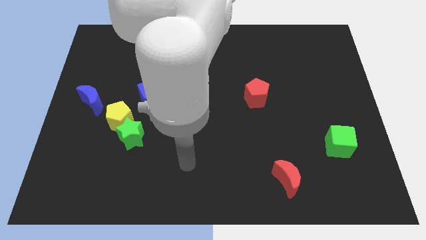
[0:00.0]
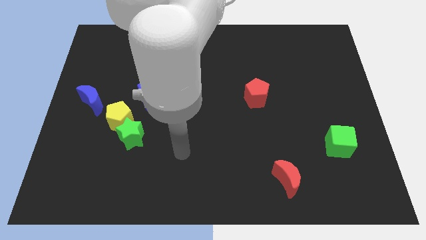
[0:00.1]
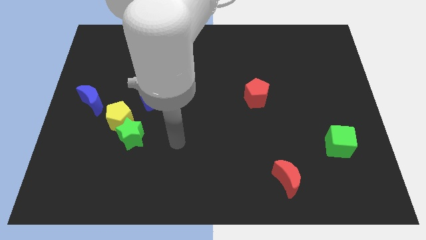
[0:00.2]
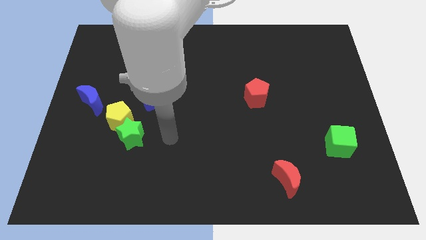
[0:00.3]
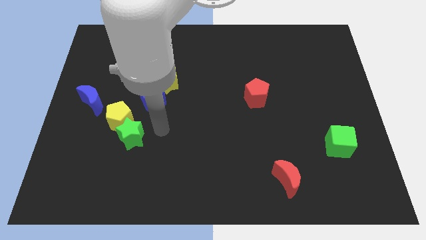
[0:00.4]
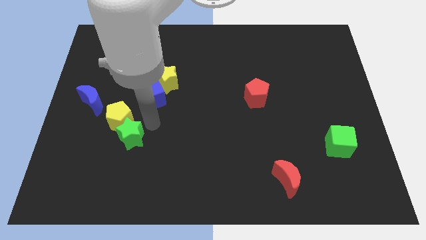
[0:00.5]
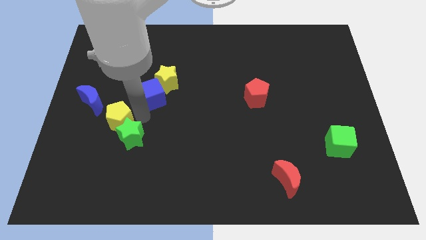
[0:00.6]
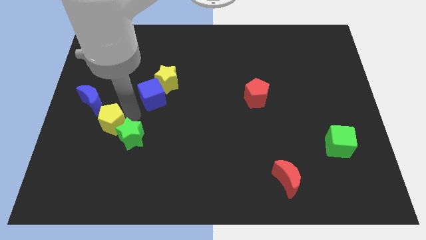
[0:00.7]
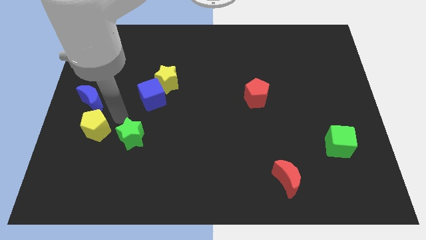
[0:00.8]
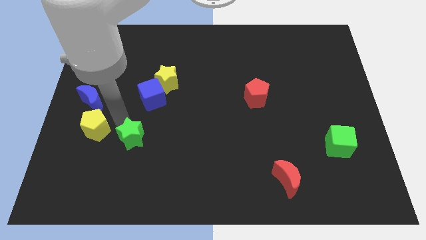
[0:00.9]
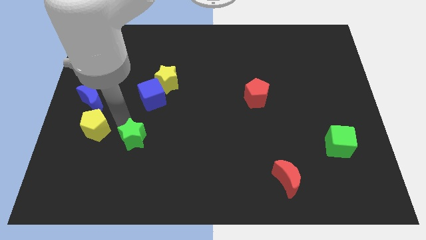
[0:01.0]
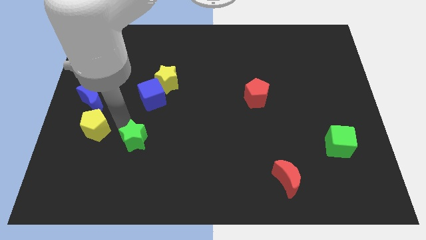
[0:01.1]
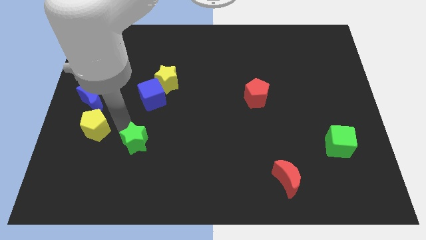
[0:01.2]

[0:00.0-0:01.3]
pull the green star apart from the yellow pentagon

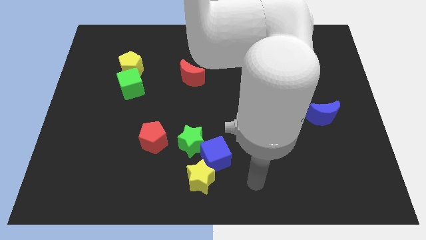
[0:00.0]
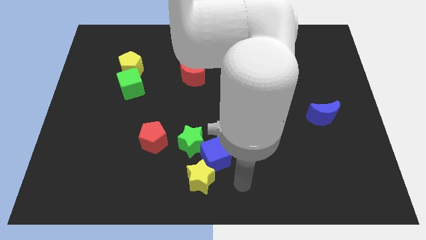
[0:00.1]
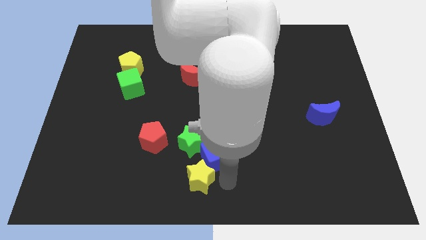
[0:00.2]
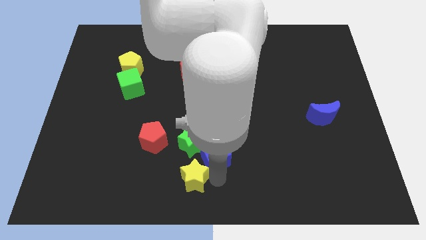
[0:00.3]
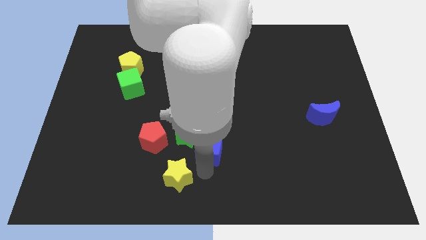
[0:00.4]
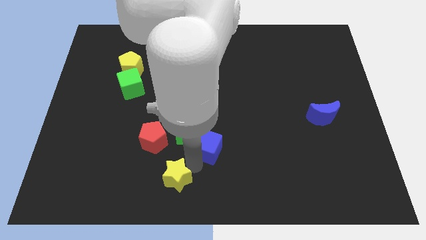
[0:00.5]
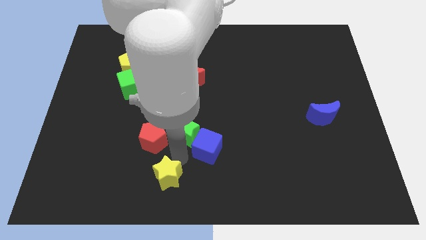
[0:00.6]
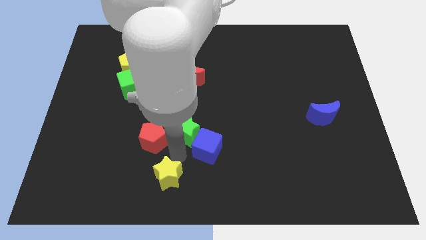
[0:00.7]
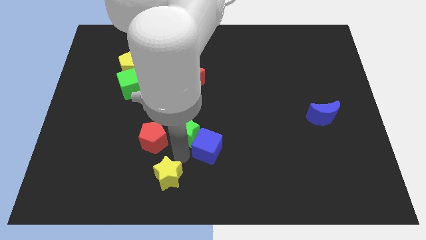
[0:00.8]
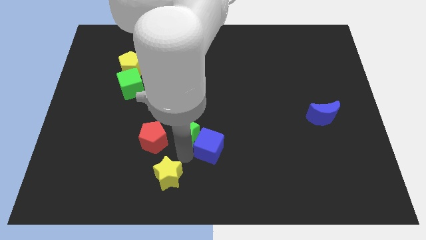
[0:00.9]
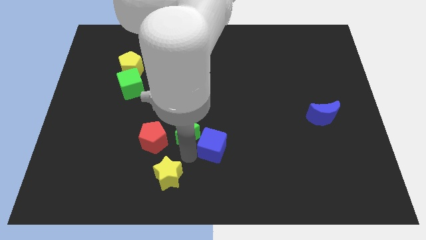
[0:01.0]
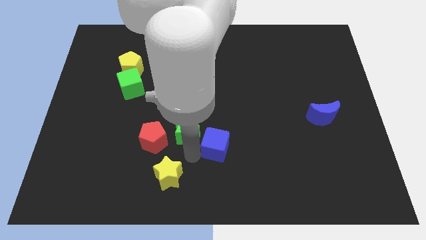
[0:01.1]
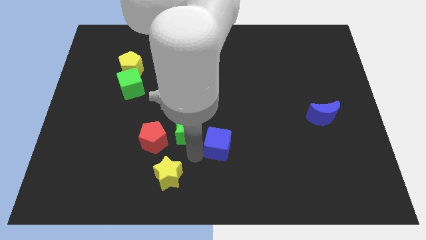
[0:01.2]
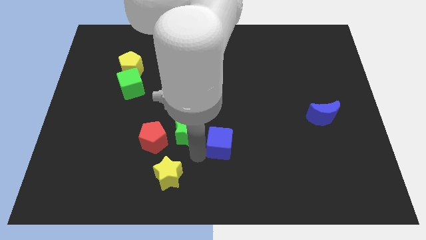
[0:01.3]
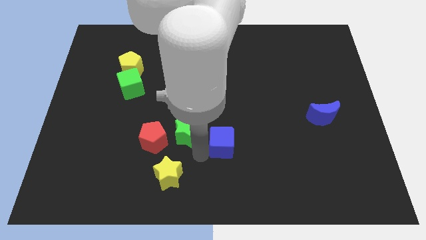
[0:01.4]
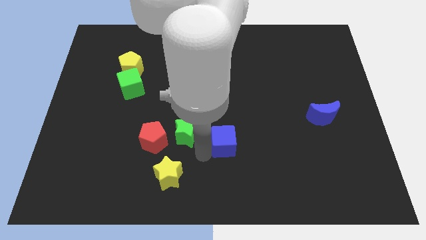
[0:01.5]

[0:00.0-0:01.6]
separate the blue cube from the green star and yellow star

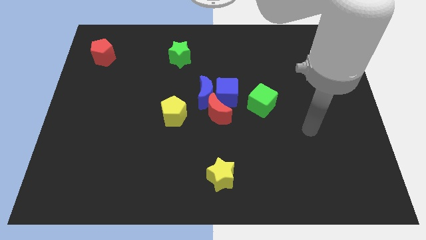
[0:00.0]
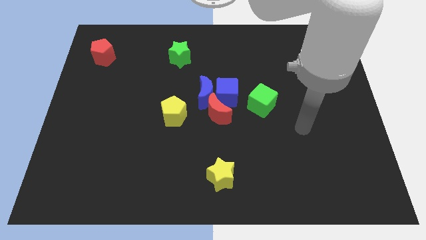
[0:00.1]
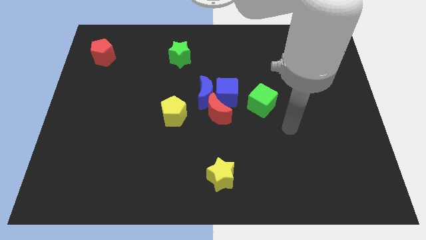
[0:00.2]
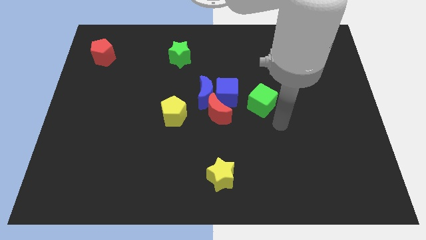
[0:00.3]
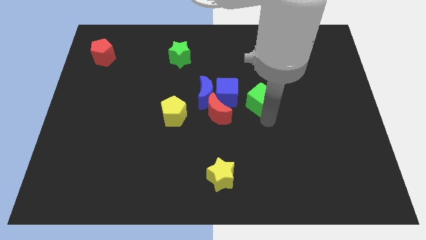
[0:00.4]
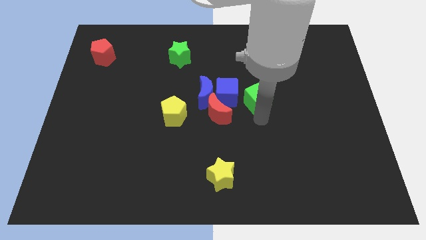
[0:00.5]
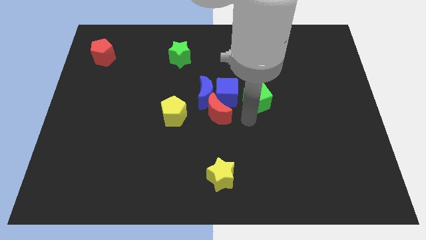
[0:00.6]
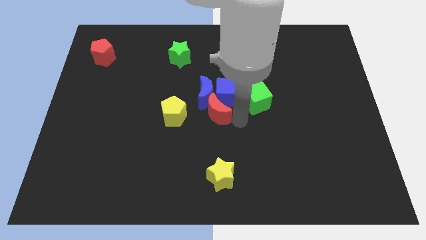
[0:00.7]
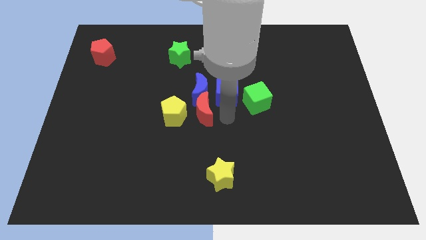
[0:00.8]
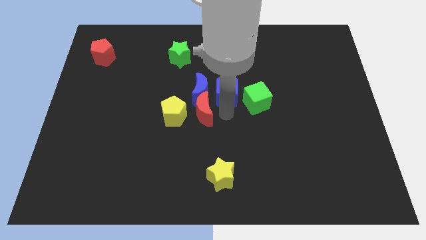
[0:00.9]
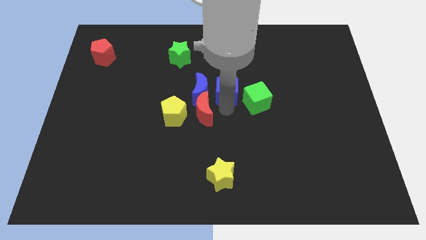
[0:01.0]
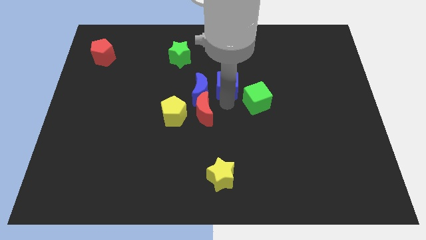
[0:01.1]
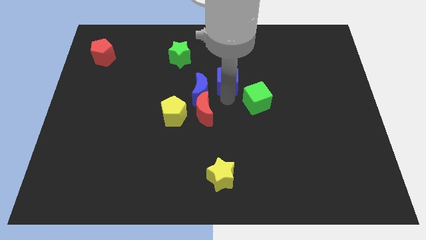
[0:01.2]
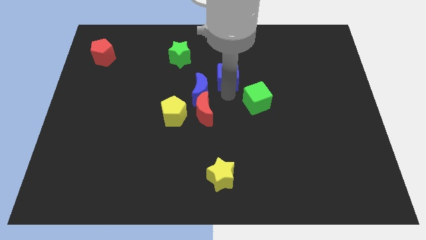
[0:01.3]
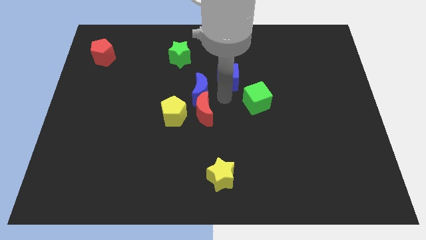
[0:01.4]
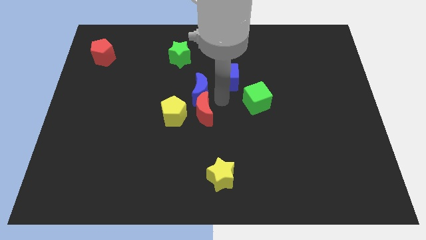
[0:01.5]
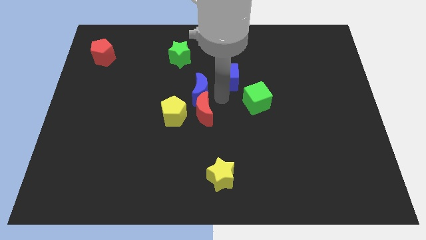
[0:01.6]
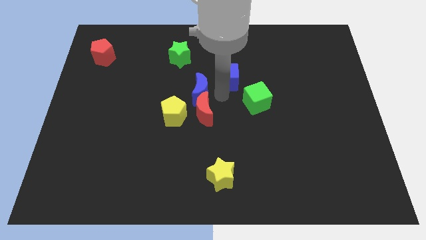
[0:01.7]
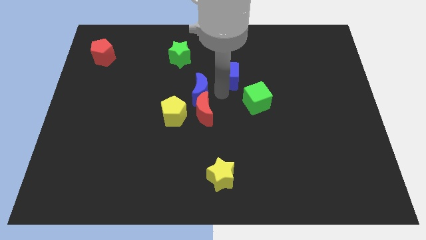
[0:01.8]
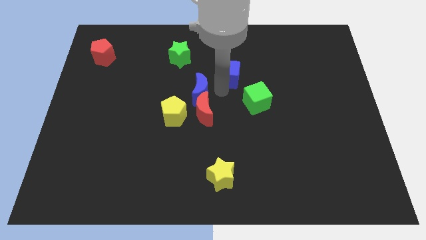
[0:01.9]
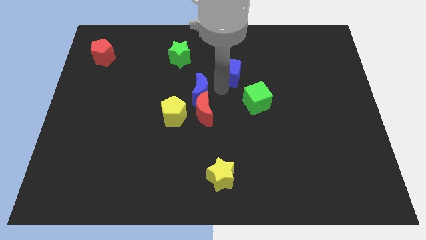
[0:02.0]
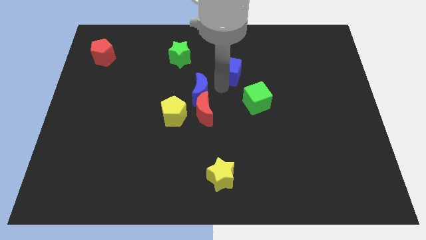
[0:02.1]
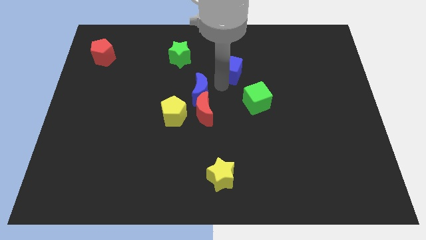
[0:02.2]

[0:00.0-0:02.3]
move the blue cube away from the blue moon, red moon, and green cube

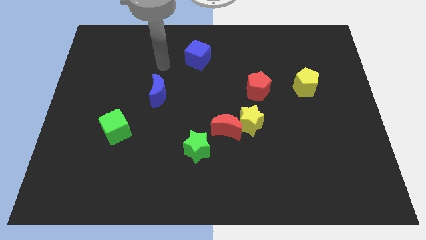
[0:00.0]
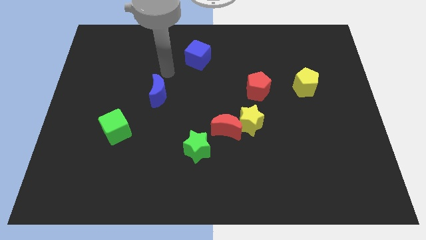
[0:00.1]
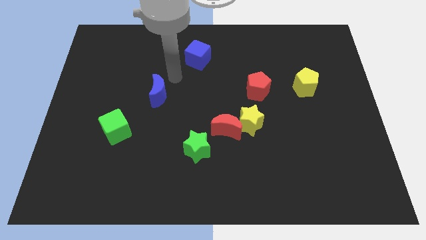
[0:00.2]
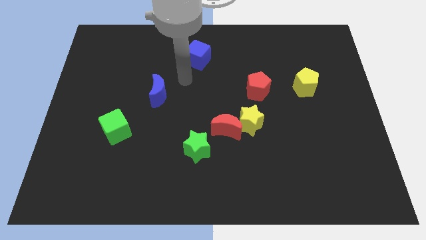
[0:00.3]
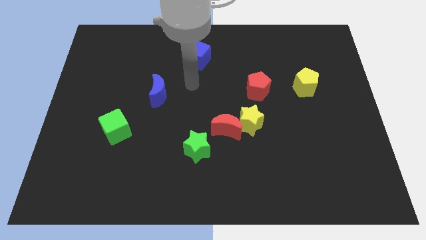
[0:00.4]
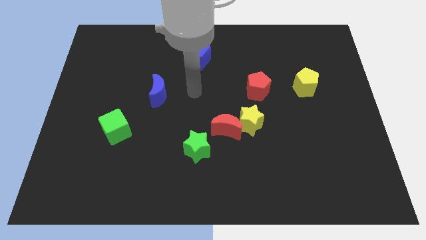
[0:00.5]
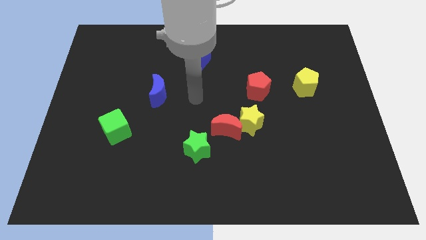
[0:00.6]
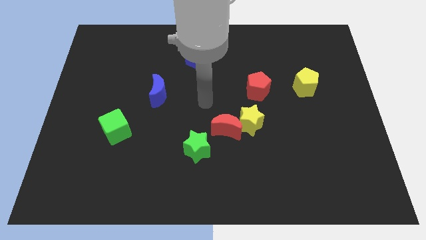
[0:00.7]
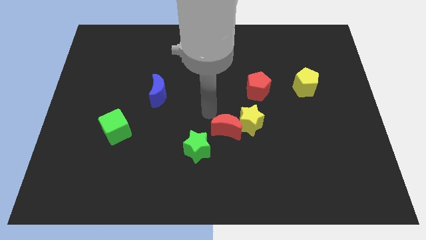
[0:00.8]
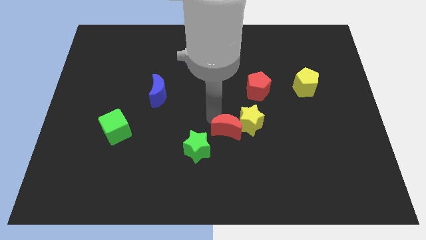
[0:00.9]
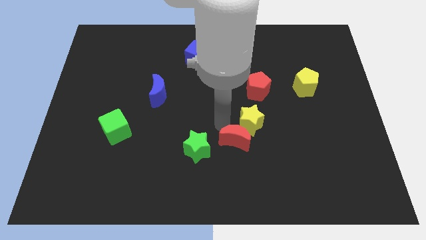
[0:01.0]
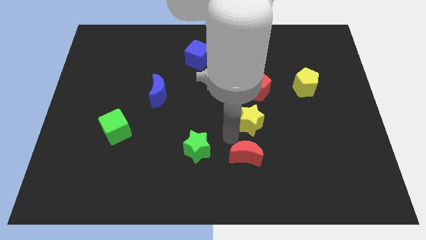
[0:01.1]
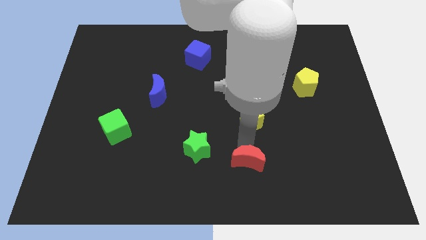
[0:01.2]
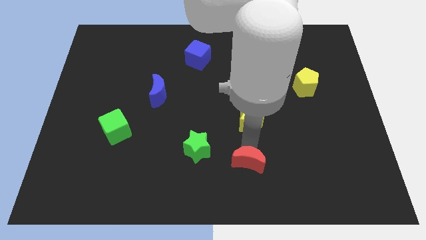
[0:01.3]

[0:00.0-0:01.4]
move the yellow star away from the red moon

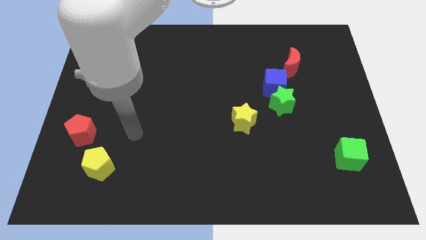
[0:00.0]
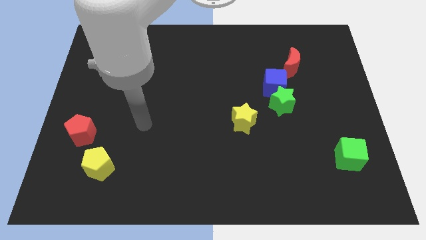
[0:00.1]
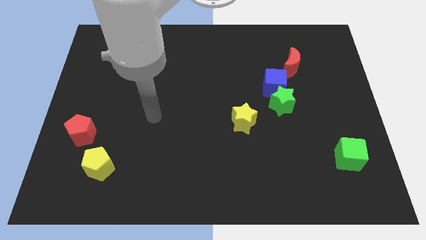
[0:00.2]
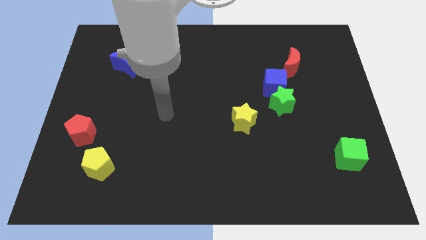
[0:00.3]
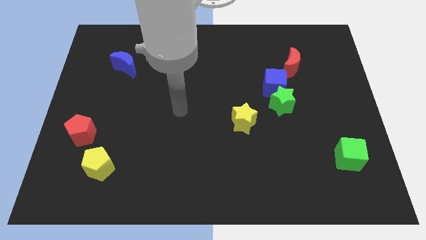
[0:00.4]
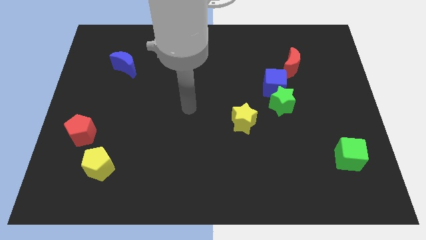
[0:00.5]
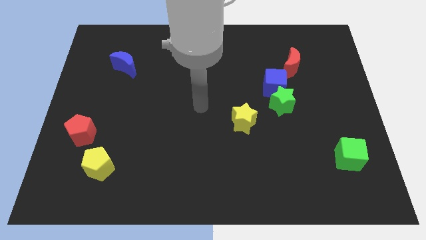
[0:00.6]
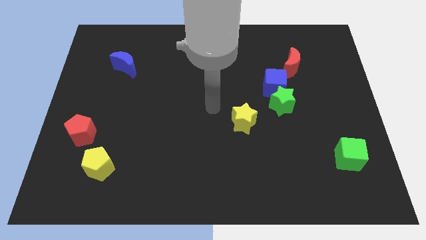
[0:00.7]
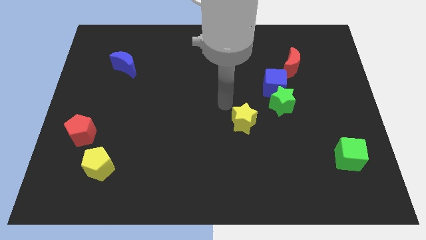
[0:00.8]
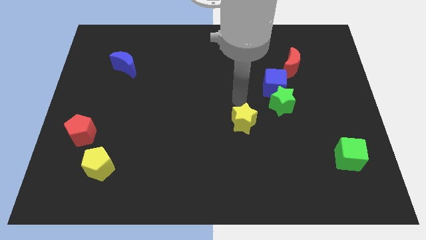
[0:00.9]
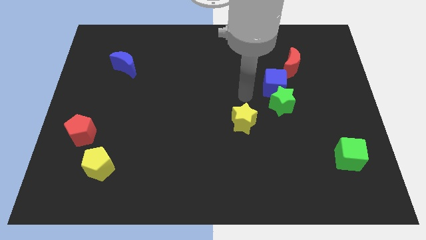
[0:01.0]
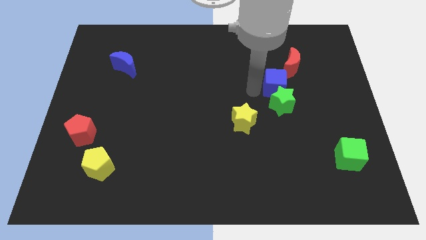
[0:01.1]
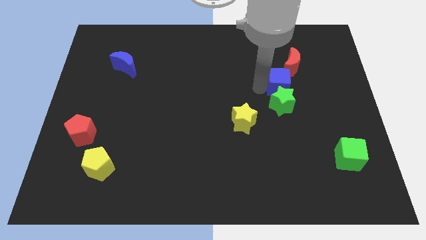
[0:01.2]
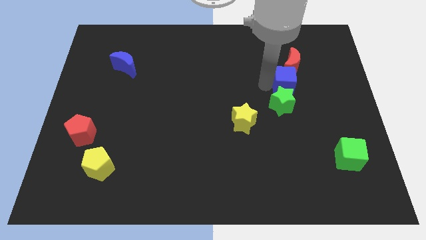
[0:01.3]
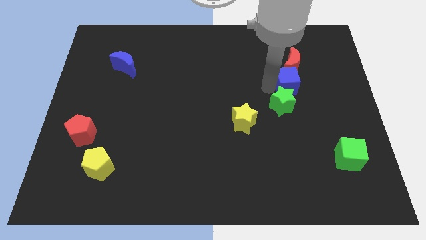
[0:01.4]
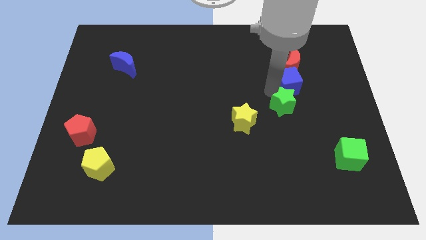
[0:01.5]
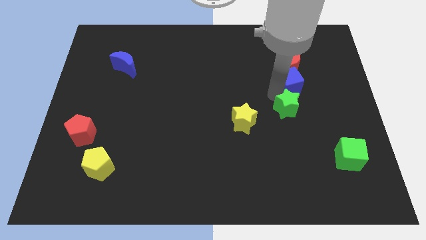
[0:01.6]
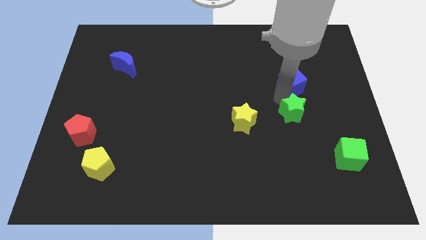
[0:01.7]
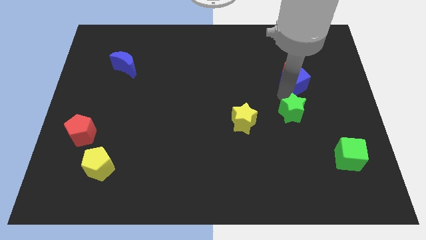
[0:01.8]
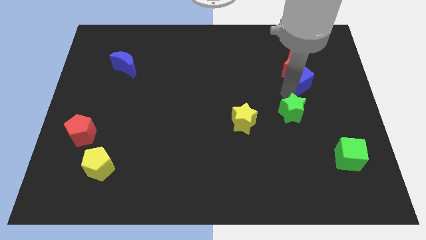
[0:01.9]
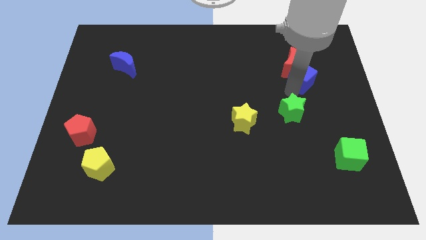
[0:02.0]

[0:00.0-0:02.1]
move the green star away from the blue cube

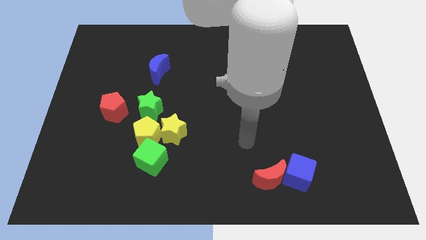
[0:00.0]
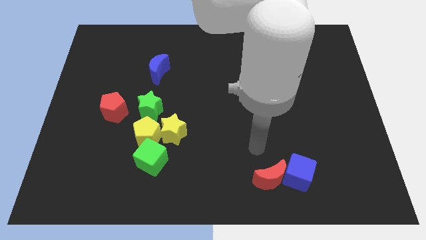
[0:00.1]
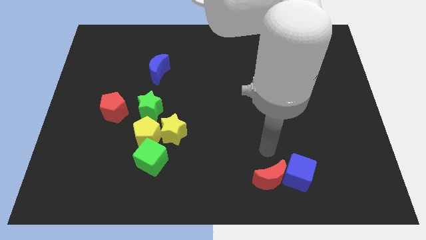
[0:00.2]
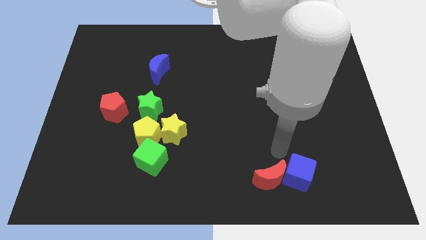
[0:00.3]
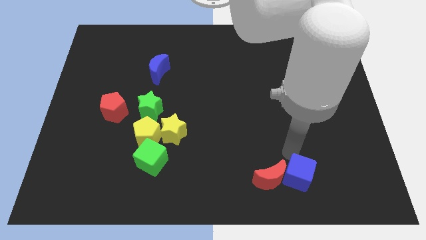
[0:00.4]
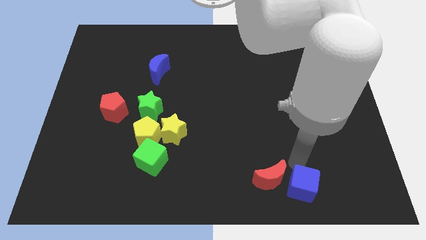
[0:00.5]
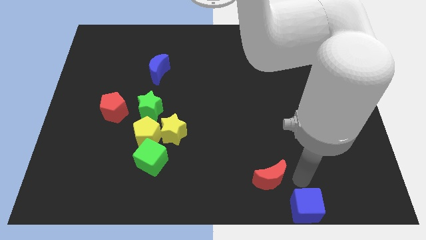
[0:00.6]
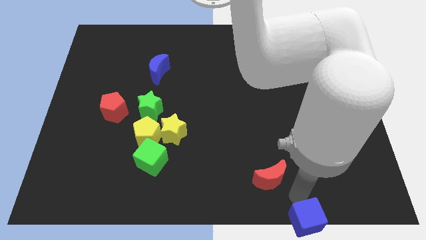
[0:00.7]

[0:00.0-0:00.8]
pull the red moon apart from the blue cube
